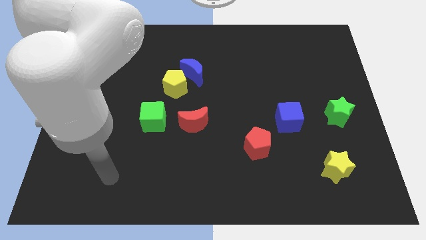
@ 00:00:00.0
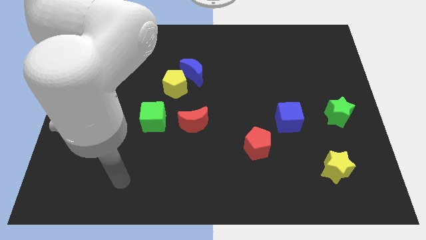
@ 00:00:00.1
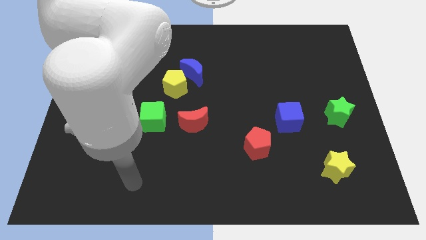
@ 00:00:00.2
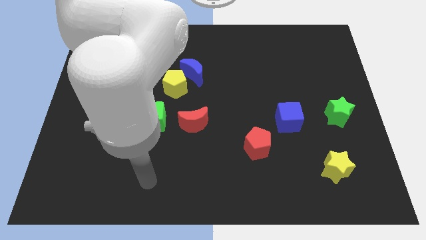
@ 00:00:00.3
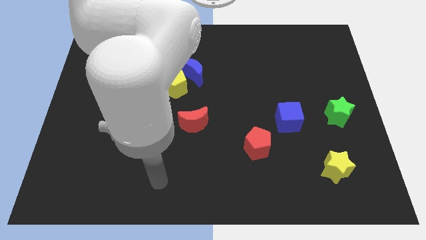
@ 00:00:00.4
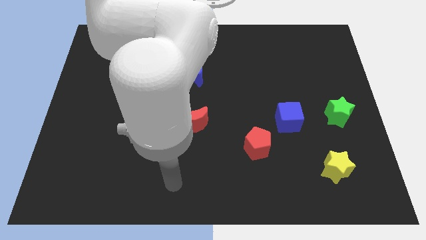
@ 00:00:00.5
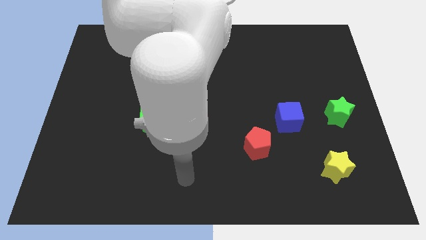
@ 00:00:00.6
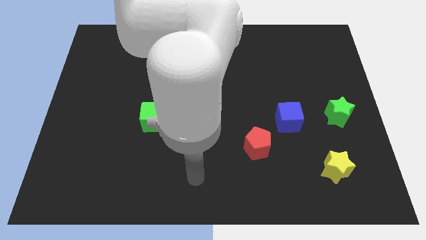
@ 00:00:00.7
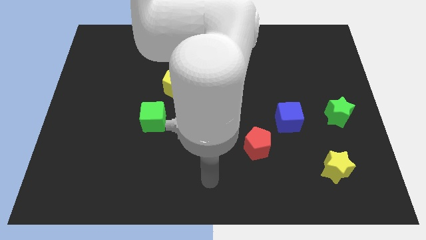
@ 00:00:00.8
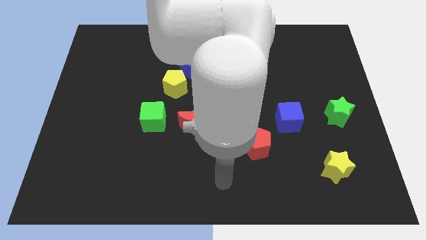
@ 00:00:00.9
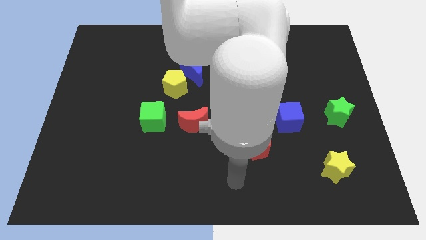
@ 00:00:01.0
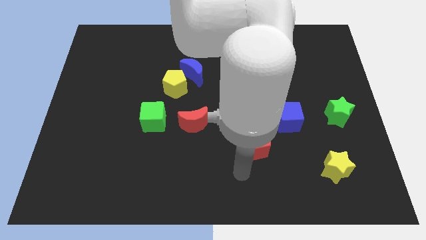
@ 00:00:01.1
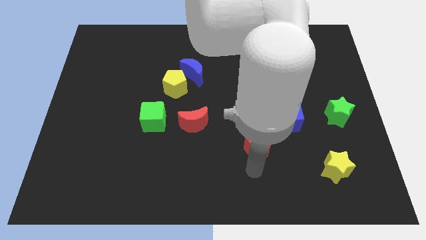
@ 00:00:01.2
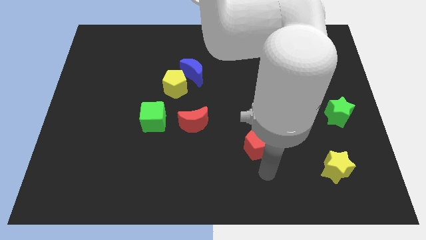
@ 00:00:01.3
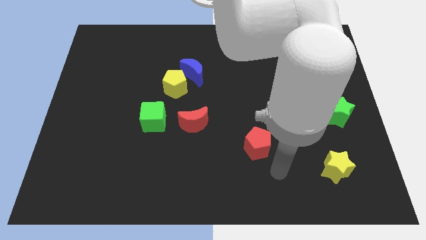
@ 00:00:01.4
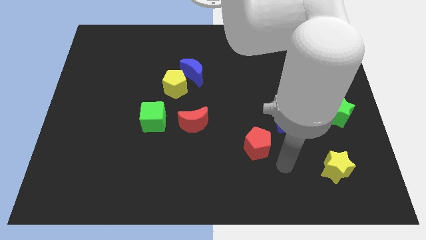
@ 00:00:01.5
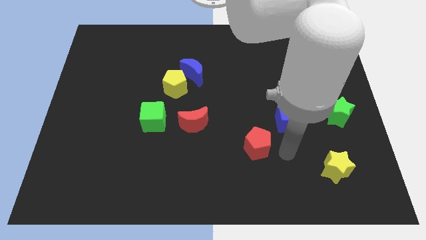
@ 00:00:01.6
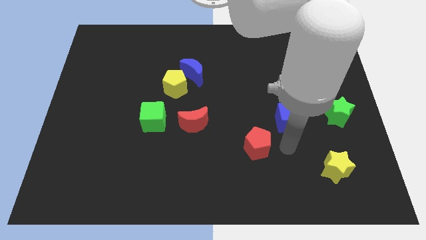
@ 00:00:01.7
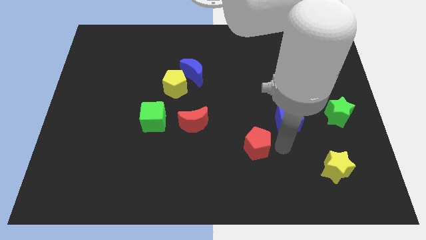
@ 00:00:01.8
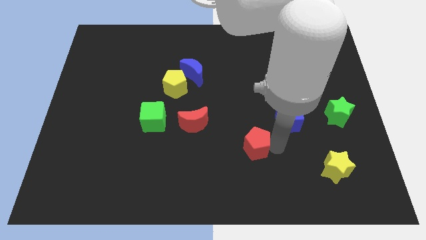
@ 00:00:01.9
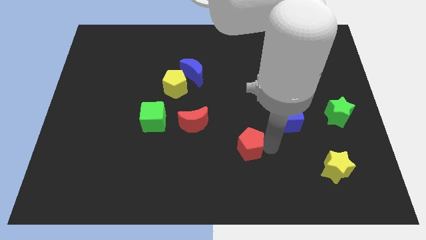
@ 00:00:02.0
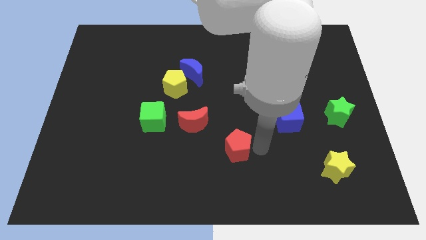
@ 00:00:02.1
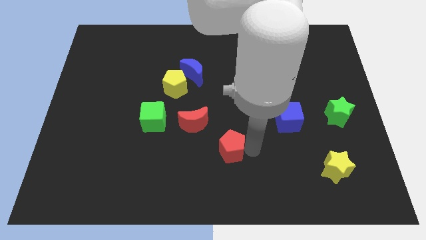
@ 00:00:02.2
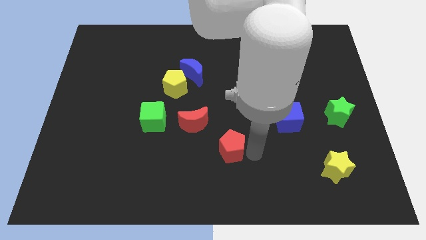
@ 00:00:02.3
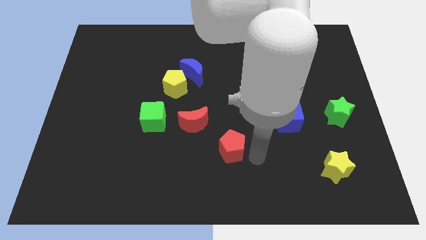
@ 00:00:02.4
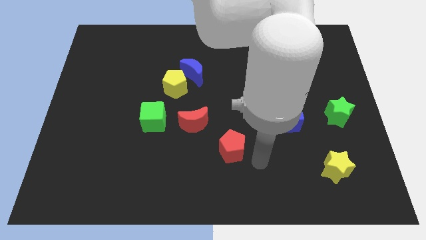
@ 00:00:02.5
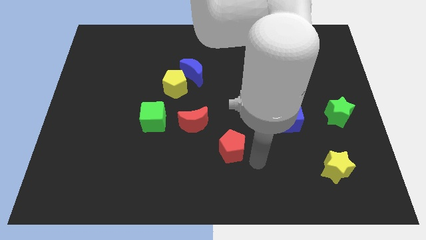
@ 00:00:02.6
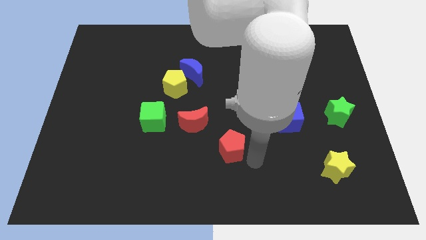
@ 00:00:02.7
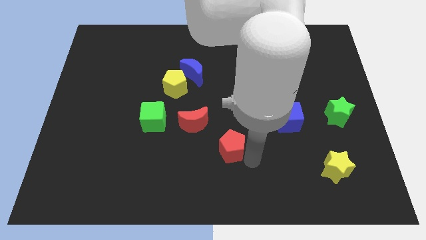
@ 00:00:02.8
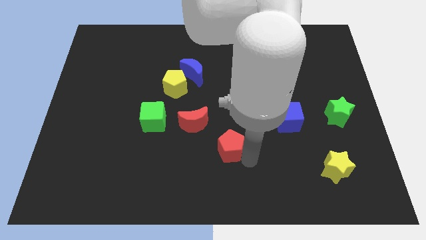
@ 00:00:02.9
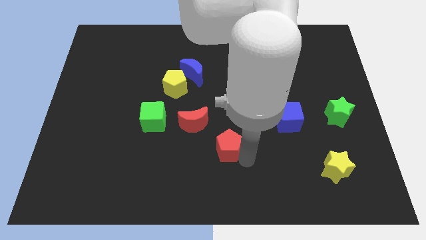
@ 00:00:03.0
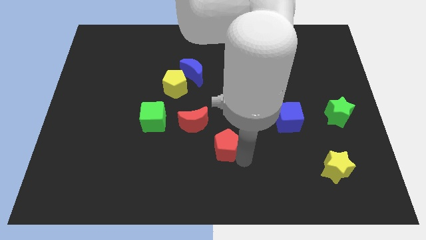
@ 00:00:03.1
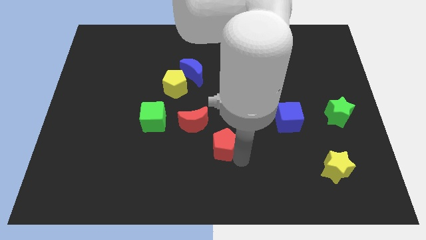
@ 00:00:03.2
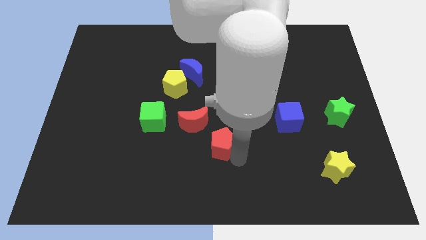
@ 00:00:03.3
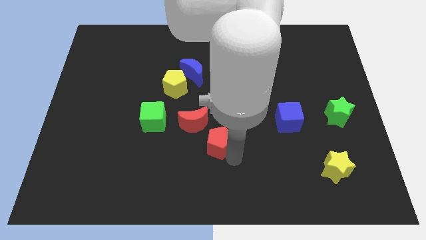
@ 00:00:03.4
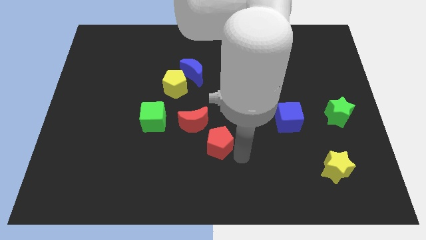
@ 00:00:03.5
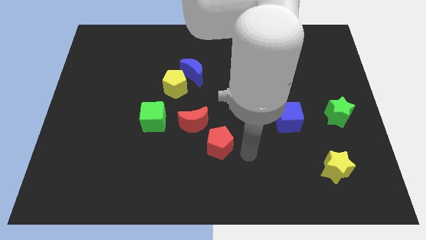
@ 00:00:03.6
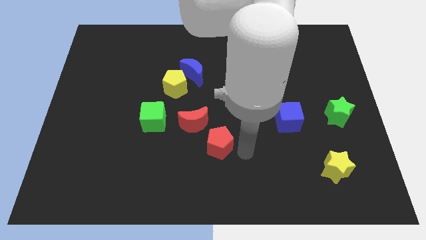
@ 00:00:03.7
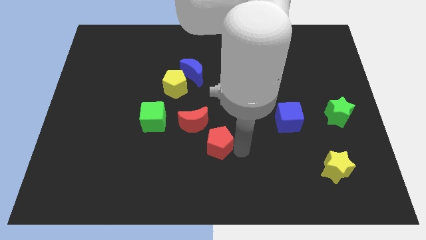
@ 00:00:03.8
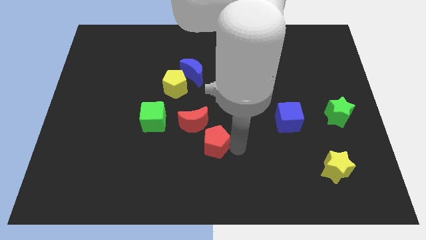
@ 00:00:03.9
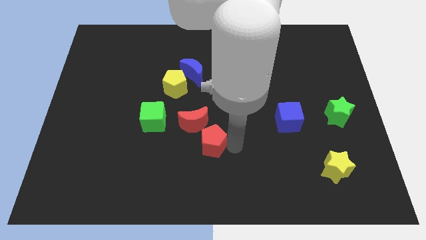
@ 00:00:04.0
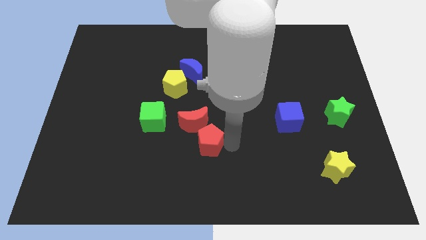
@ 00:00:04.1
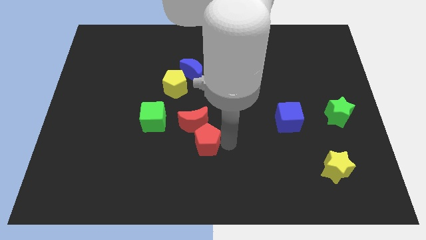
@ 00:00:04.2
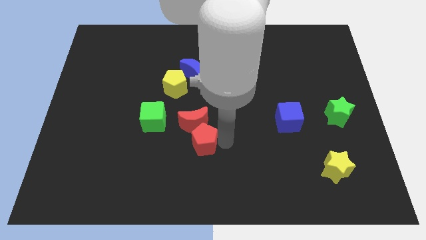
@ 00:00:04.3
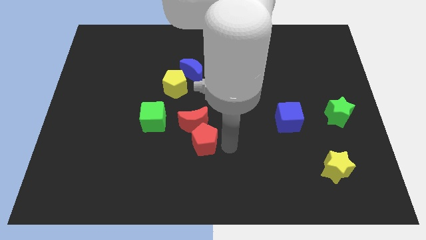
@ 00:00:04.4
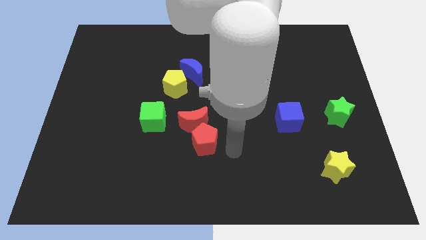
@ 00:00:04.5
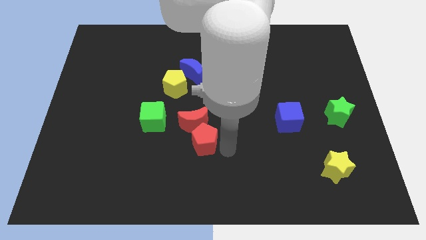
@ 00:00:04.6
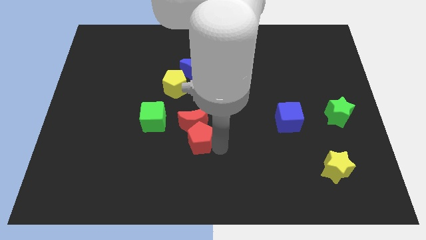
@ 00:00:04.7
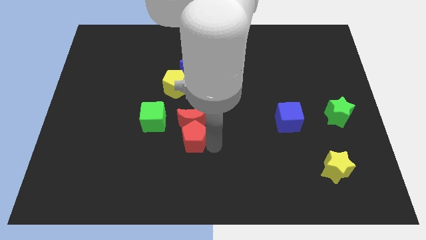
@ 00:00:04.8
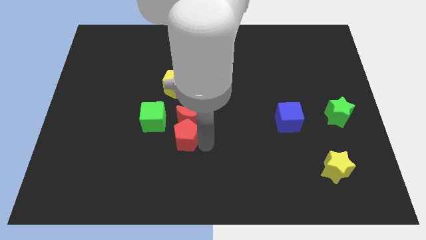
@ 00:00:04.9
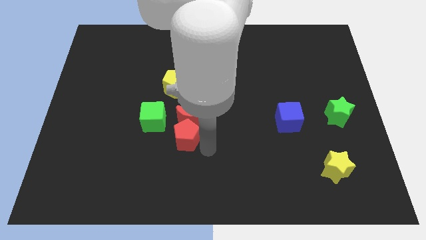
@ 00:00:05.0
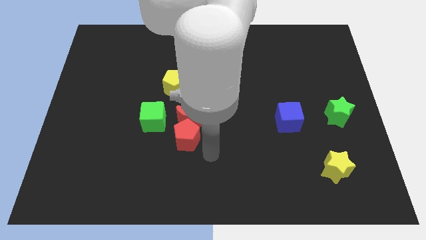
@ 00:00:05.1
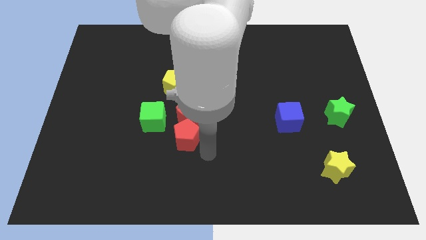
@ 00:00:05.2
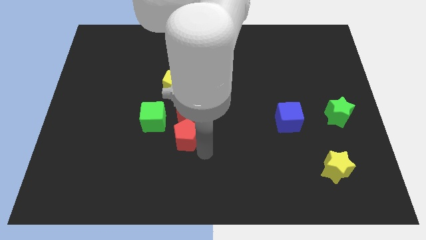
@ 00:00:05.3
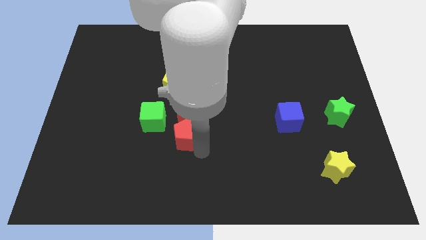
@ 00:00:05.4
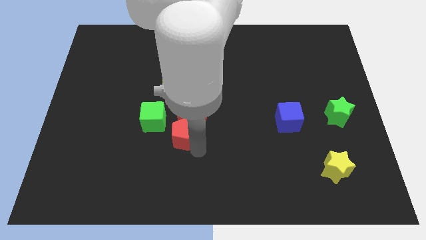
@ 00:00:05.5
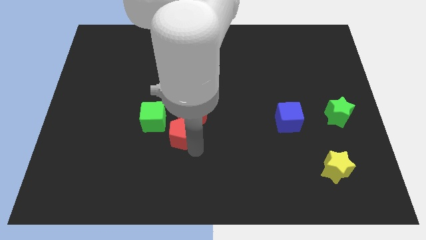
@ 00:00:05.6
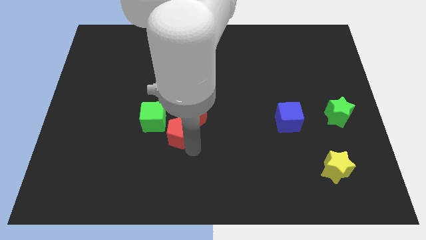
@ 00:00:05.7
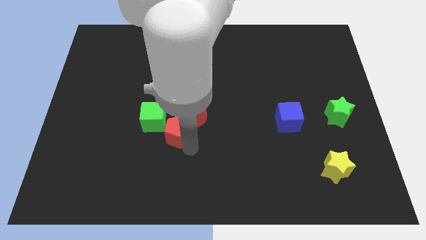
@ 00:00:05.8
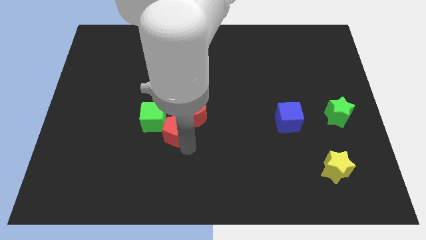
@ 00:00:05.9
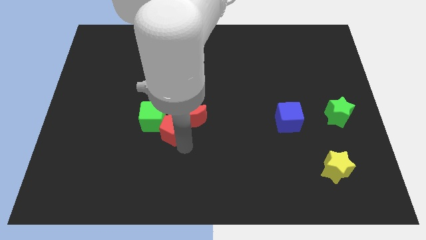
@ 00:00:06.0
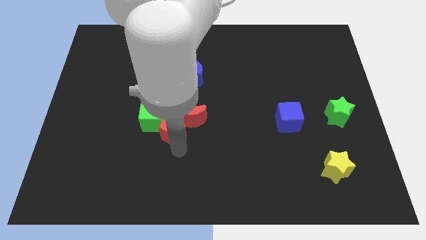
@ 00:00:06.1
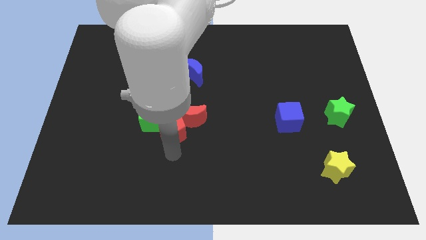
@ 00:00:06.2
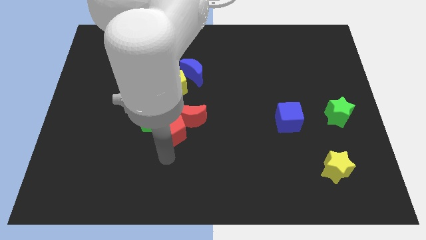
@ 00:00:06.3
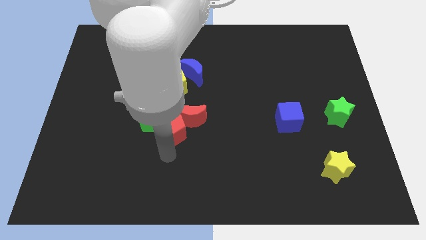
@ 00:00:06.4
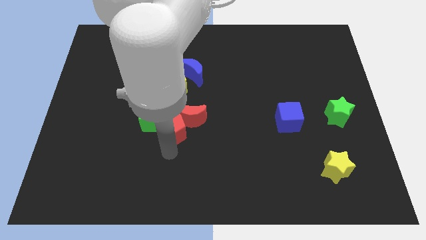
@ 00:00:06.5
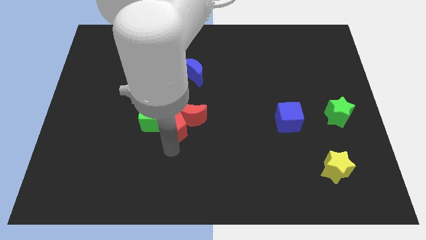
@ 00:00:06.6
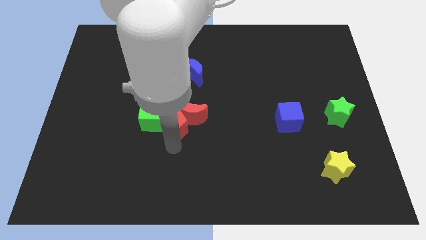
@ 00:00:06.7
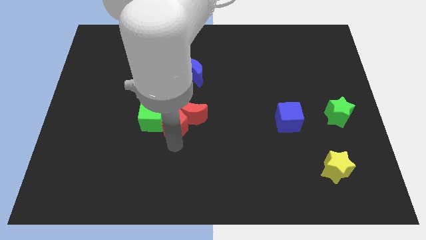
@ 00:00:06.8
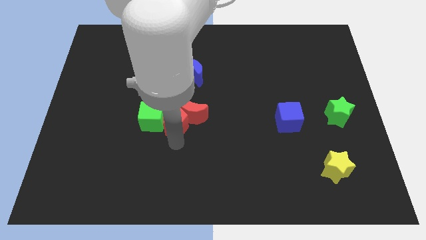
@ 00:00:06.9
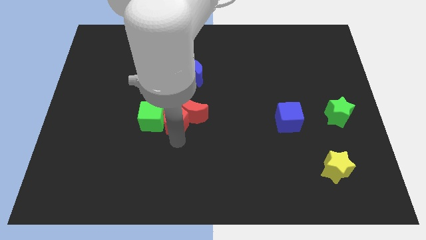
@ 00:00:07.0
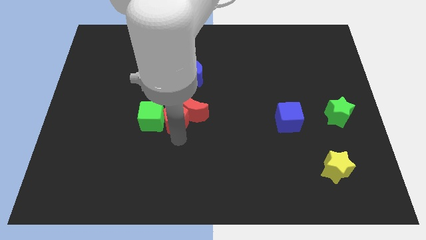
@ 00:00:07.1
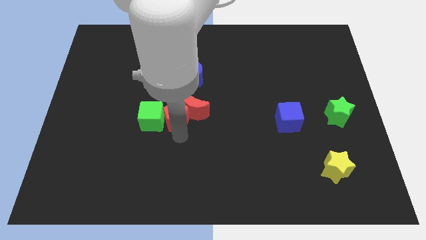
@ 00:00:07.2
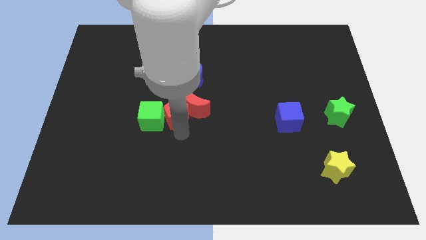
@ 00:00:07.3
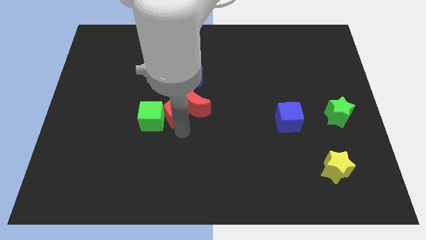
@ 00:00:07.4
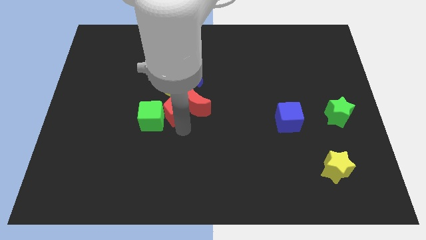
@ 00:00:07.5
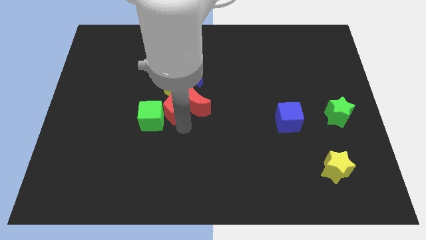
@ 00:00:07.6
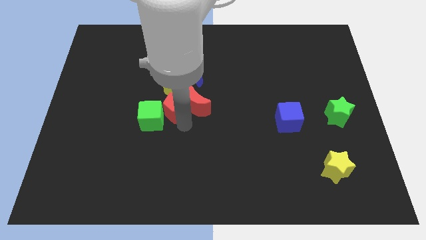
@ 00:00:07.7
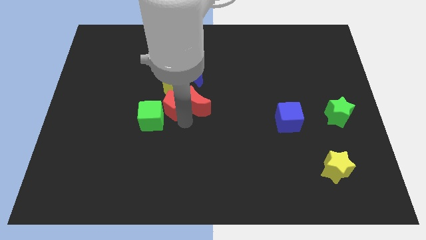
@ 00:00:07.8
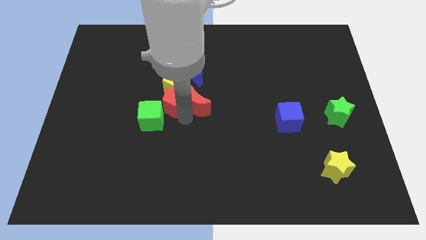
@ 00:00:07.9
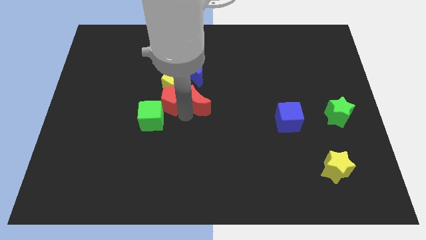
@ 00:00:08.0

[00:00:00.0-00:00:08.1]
slide the red pentagon above the green cube
